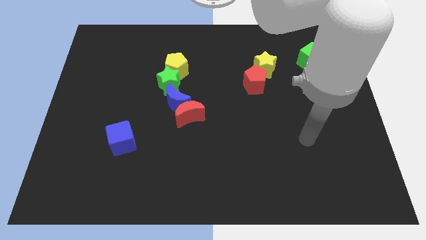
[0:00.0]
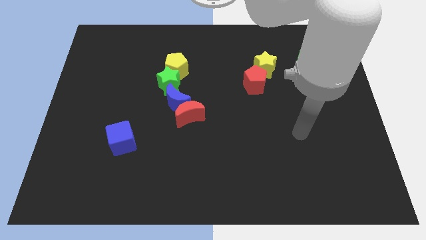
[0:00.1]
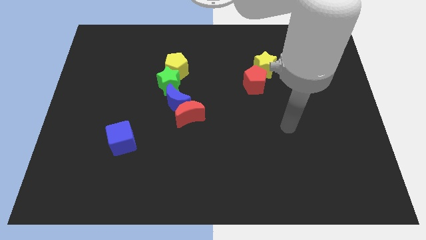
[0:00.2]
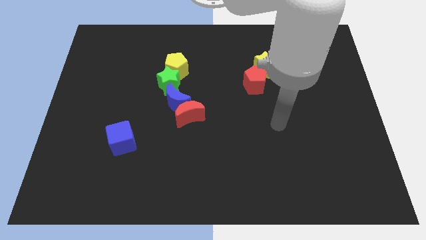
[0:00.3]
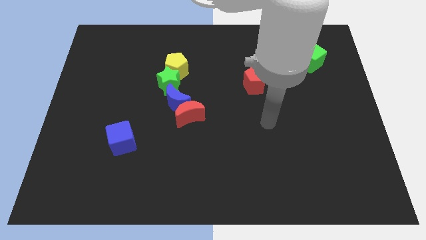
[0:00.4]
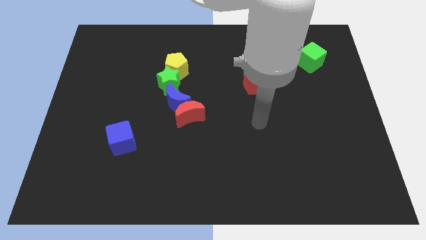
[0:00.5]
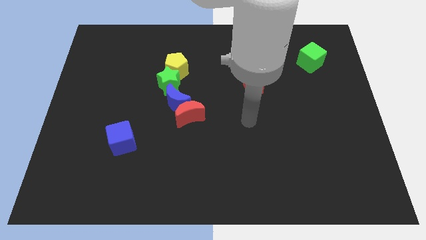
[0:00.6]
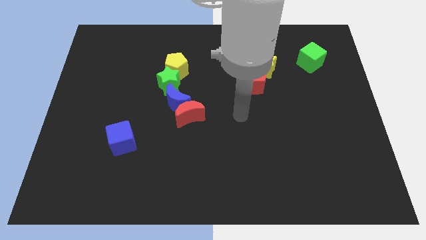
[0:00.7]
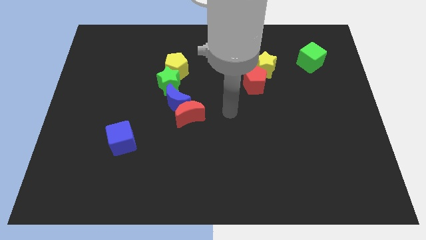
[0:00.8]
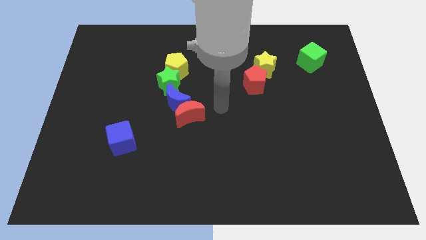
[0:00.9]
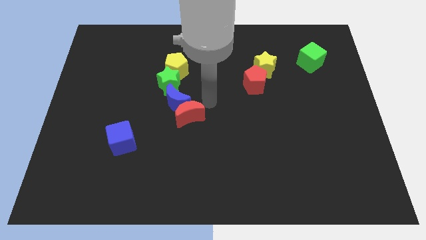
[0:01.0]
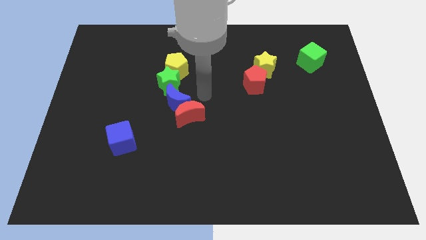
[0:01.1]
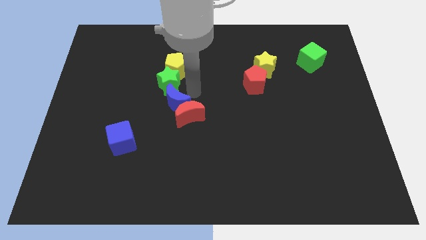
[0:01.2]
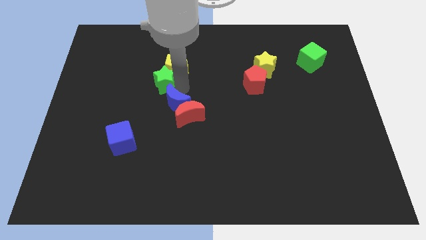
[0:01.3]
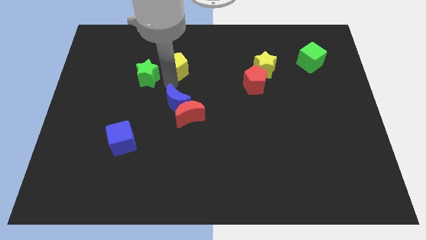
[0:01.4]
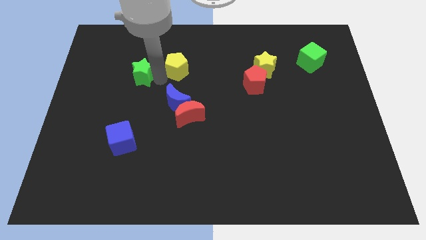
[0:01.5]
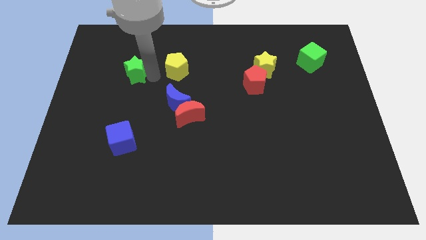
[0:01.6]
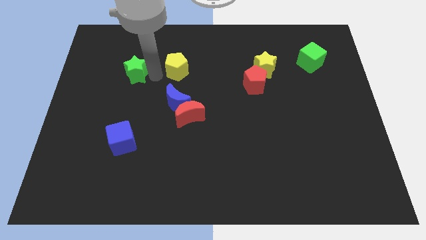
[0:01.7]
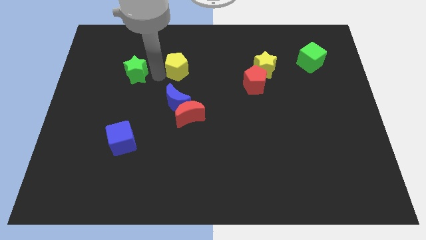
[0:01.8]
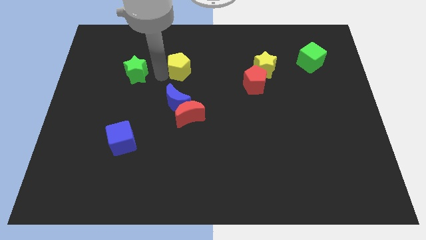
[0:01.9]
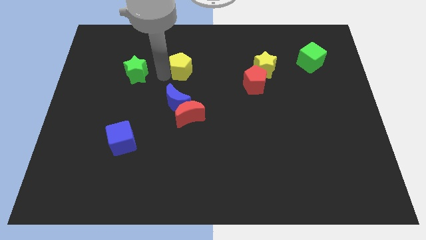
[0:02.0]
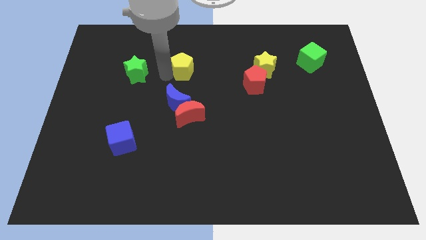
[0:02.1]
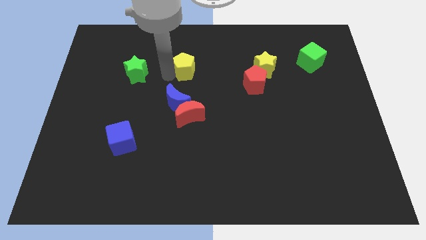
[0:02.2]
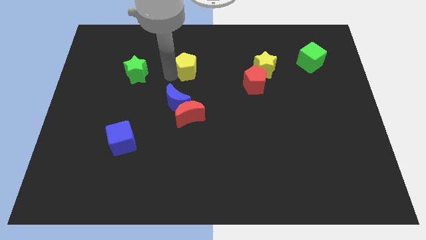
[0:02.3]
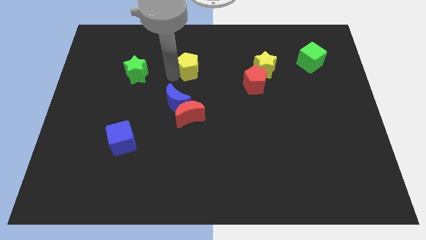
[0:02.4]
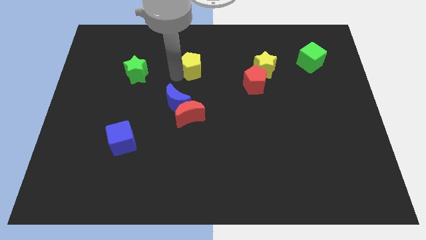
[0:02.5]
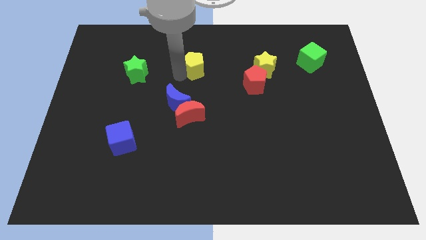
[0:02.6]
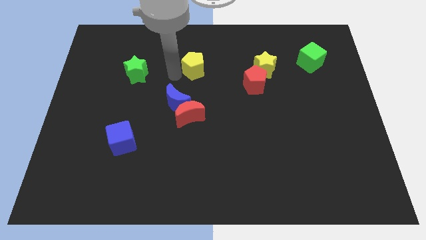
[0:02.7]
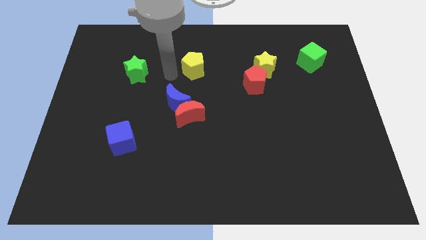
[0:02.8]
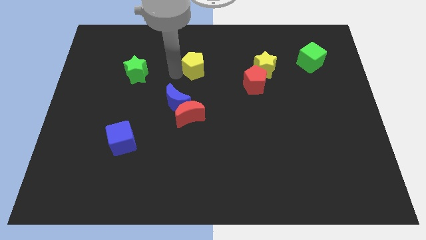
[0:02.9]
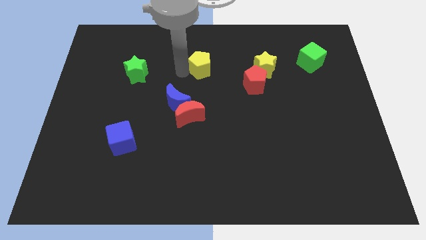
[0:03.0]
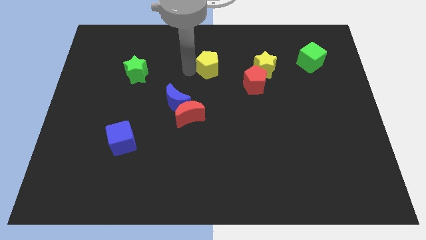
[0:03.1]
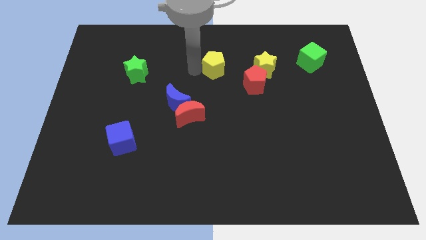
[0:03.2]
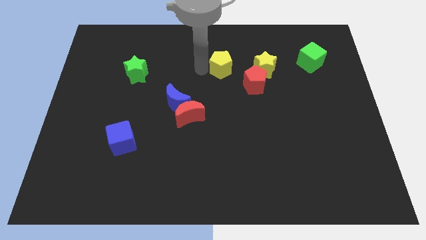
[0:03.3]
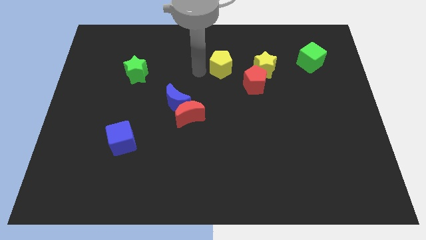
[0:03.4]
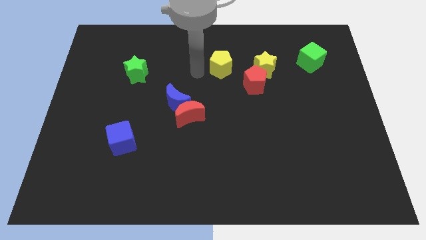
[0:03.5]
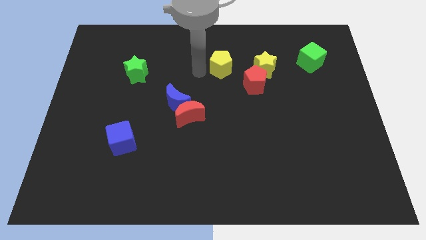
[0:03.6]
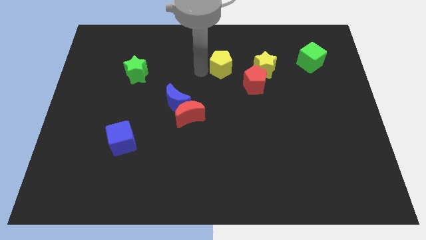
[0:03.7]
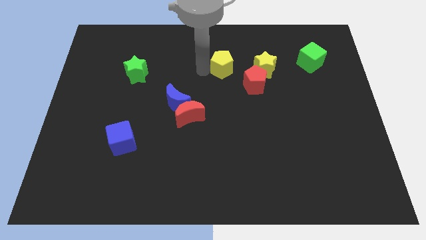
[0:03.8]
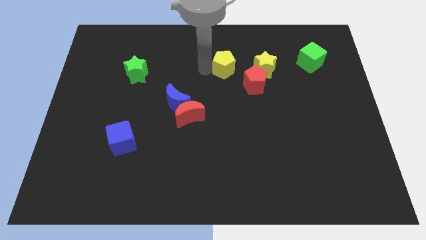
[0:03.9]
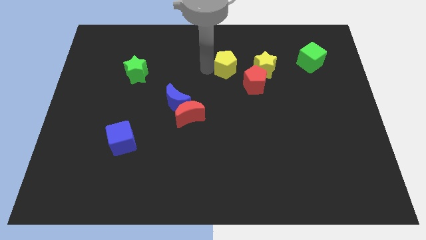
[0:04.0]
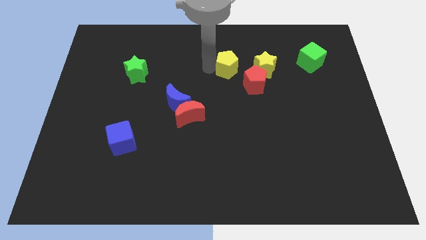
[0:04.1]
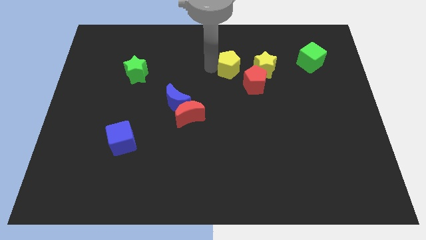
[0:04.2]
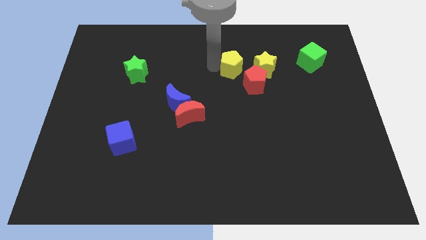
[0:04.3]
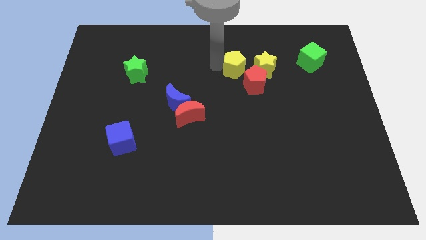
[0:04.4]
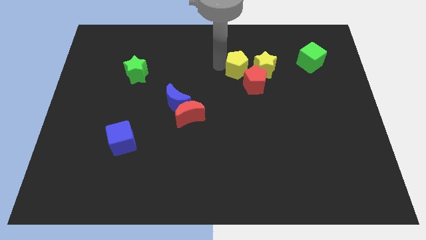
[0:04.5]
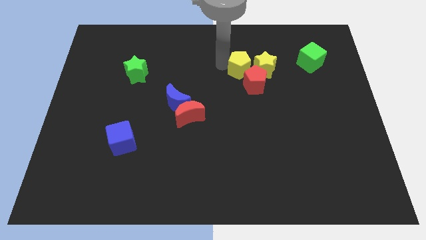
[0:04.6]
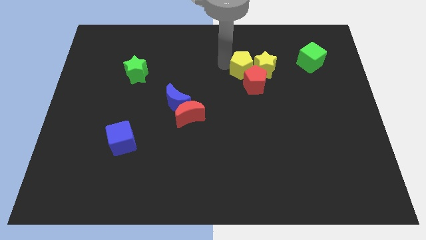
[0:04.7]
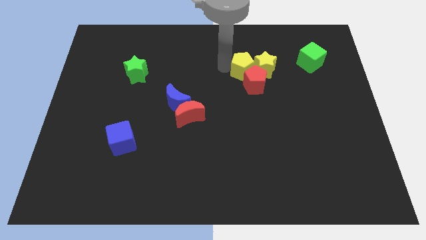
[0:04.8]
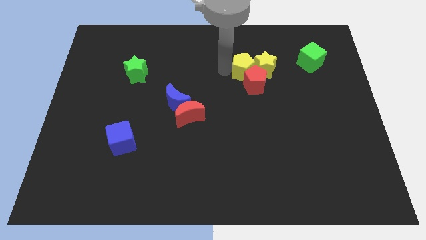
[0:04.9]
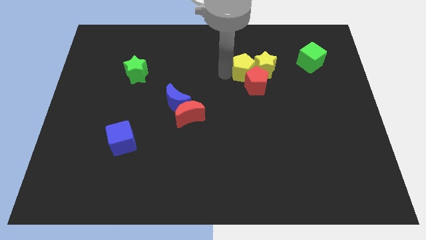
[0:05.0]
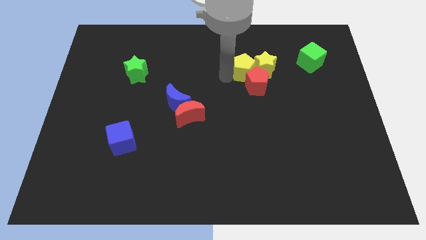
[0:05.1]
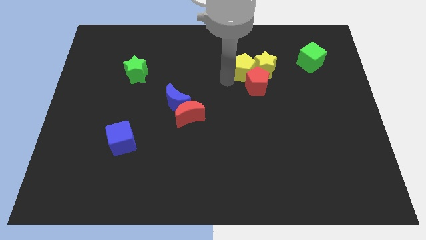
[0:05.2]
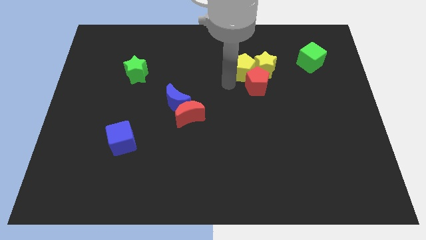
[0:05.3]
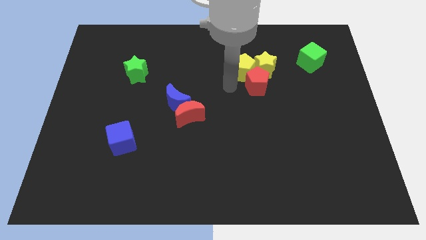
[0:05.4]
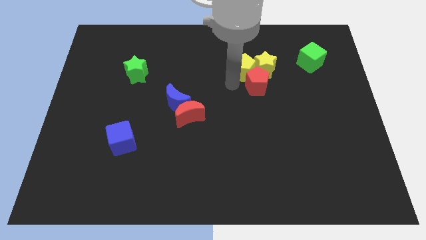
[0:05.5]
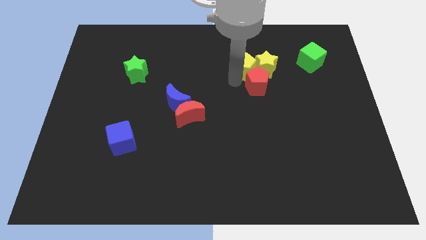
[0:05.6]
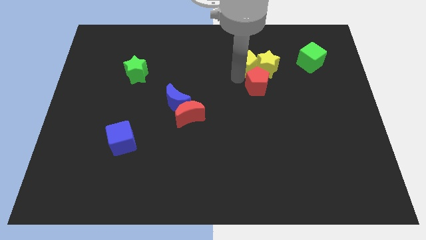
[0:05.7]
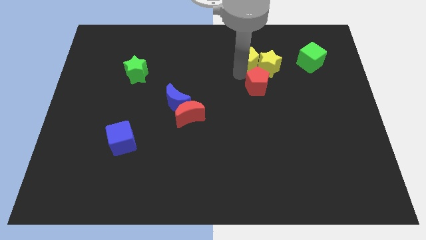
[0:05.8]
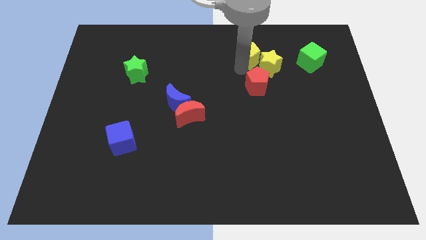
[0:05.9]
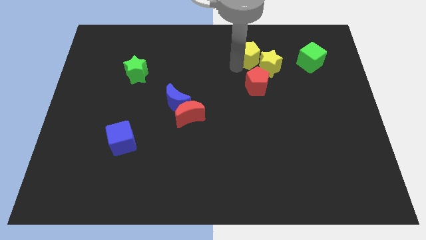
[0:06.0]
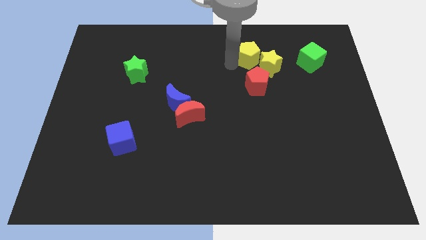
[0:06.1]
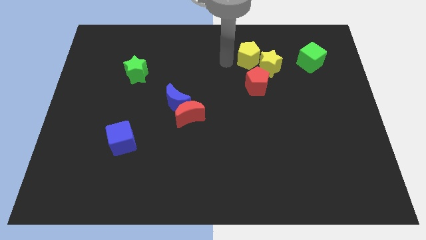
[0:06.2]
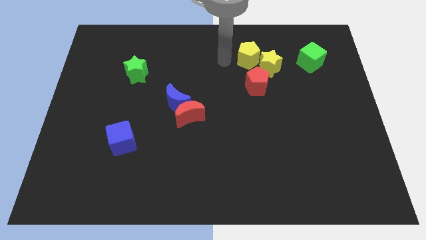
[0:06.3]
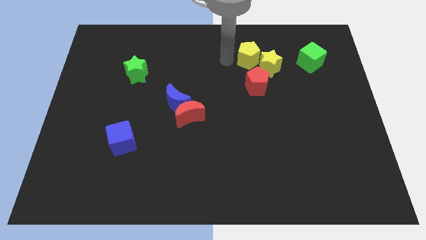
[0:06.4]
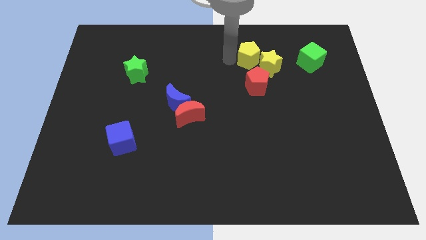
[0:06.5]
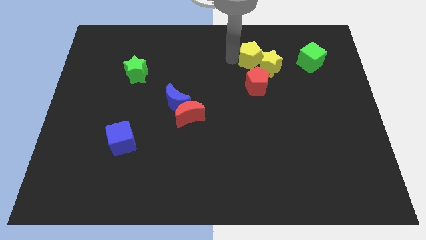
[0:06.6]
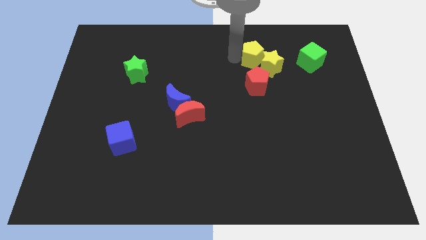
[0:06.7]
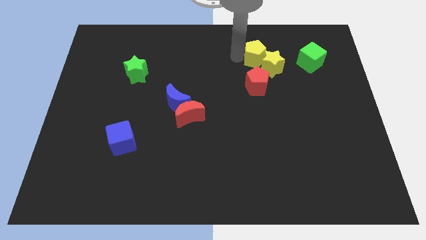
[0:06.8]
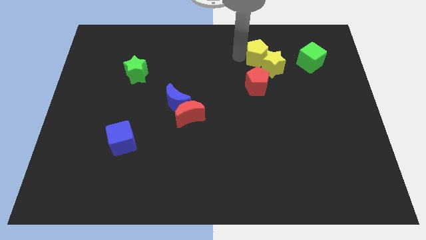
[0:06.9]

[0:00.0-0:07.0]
move the yellow pentagon right
